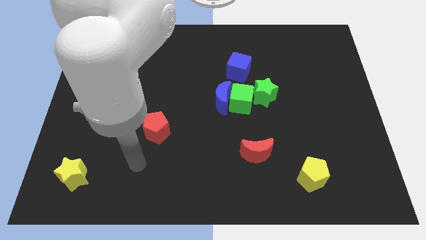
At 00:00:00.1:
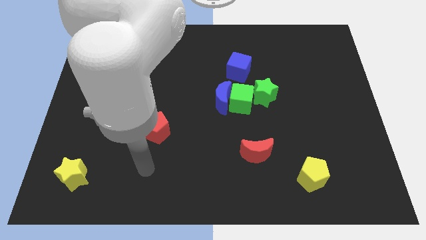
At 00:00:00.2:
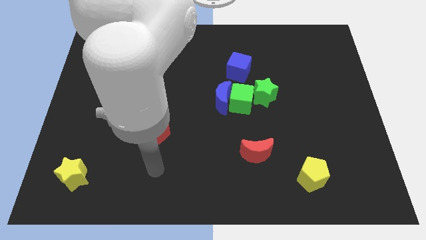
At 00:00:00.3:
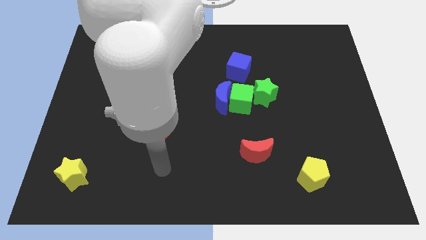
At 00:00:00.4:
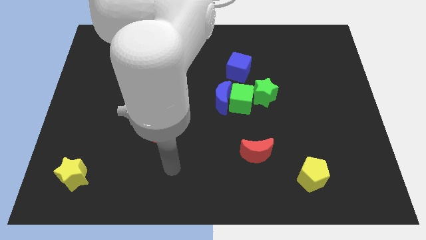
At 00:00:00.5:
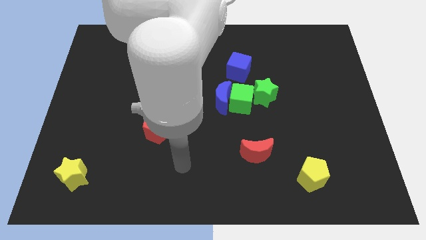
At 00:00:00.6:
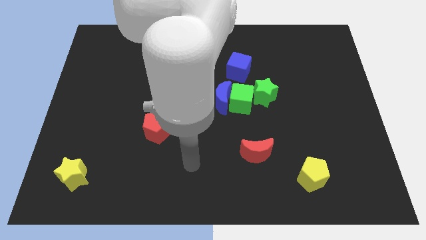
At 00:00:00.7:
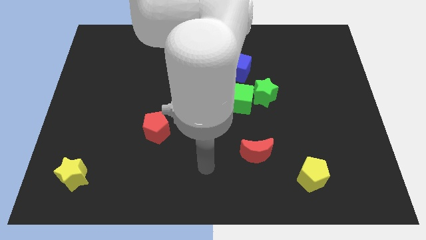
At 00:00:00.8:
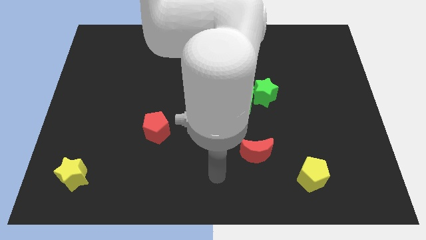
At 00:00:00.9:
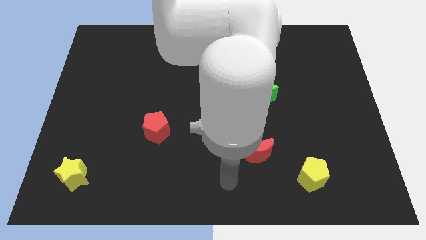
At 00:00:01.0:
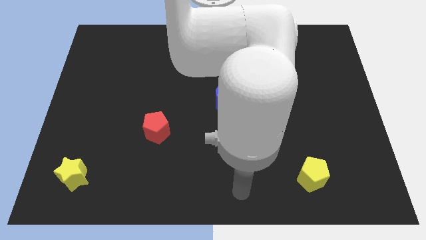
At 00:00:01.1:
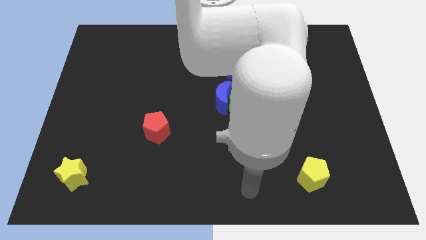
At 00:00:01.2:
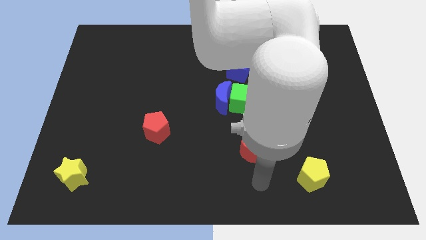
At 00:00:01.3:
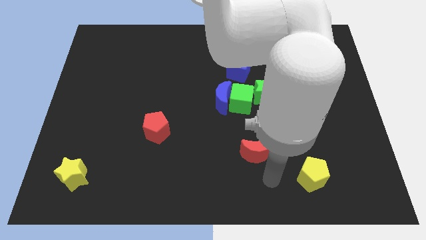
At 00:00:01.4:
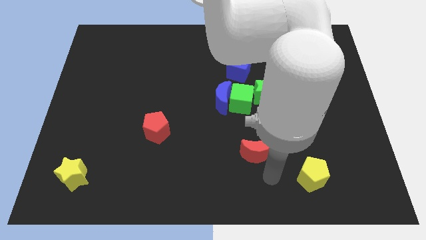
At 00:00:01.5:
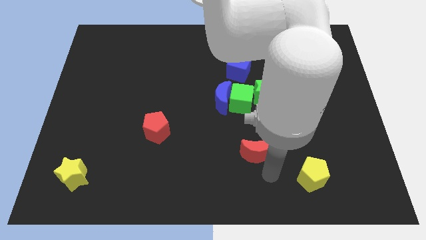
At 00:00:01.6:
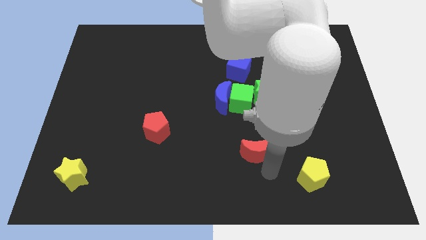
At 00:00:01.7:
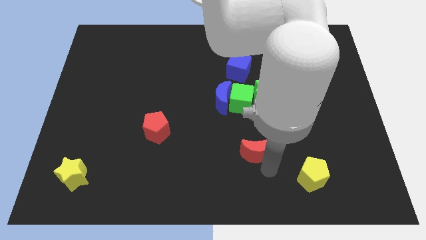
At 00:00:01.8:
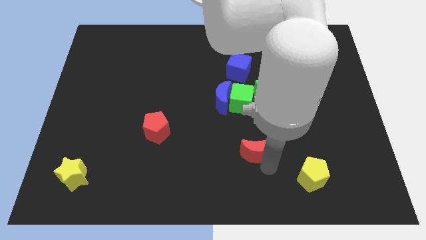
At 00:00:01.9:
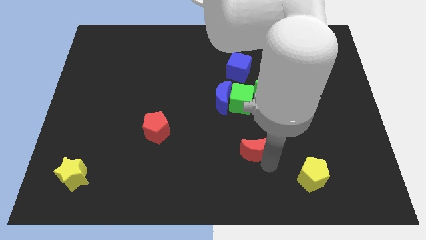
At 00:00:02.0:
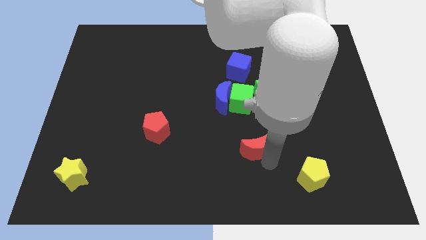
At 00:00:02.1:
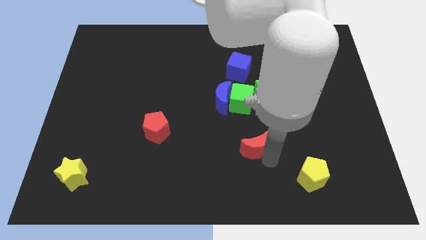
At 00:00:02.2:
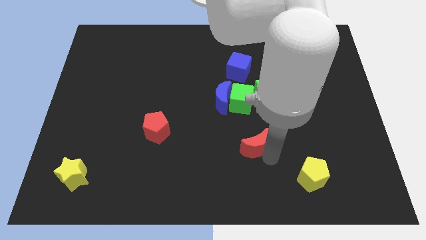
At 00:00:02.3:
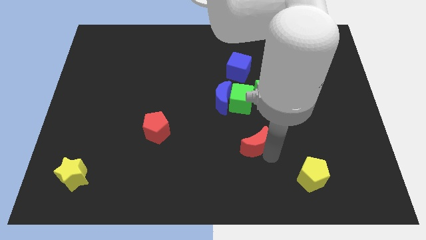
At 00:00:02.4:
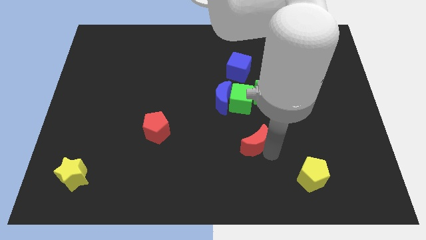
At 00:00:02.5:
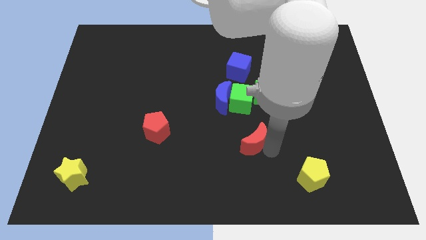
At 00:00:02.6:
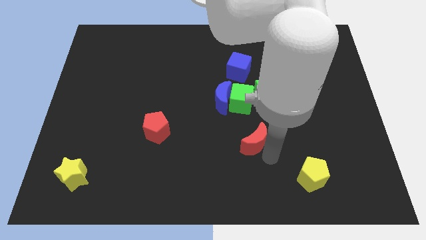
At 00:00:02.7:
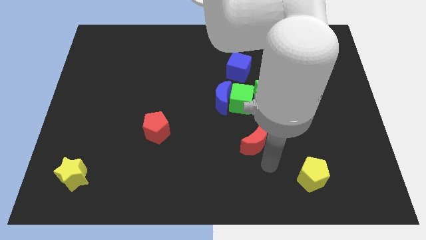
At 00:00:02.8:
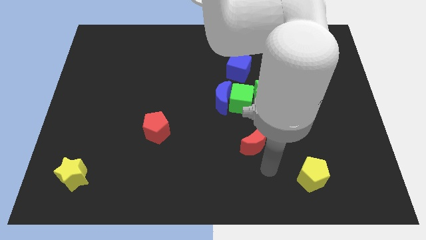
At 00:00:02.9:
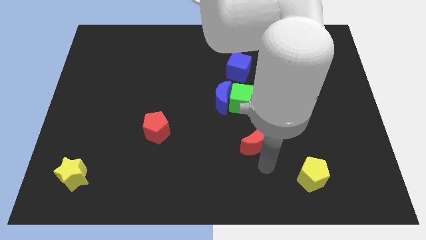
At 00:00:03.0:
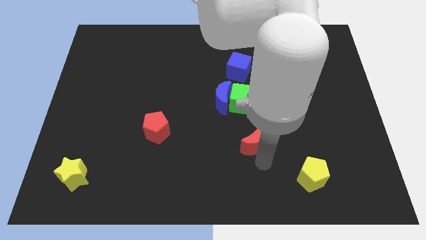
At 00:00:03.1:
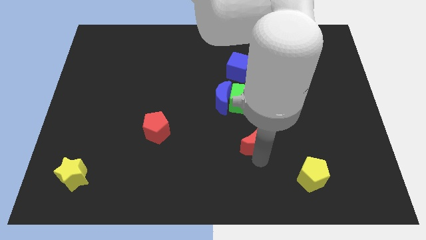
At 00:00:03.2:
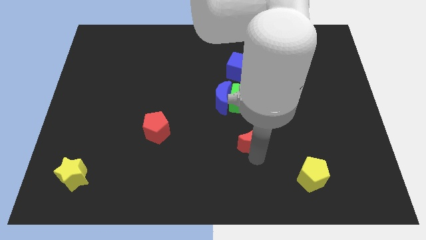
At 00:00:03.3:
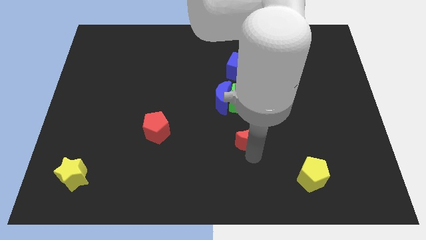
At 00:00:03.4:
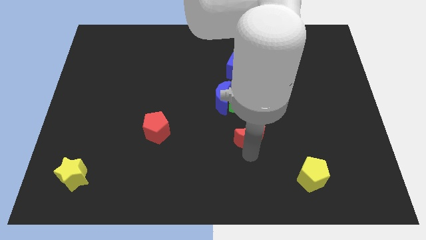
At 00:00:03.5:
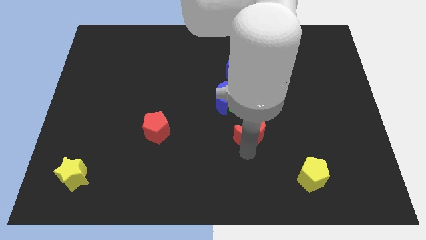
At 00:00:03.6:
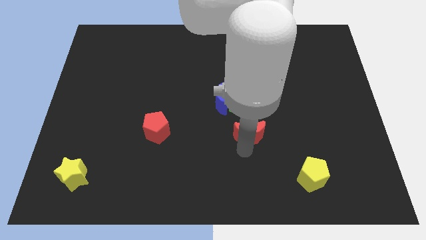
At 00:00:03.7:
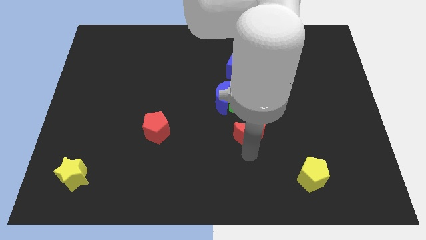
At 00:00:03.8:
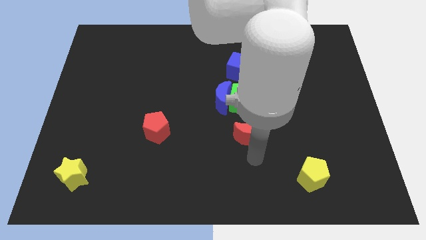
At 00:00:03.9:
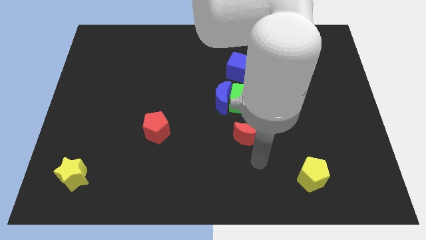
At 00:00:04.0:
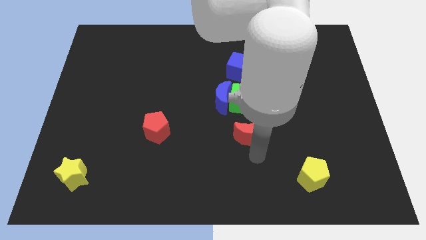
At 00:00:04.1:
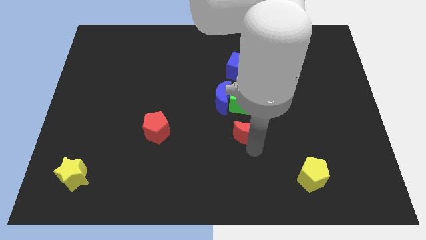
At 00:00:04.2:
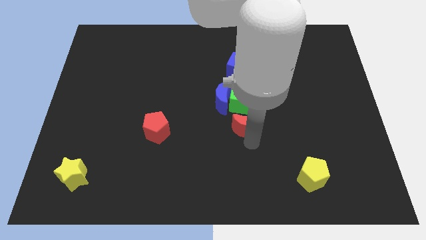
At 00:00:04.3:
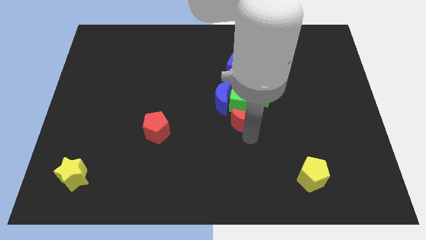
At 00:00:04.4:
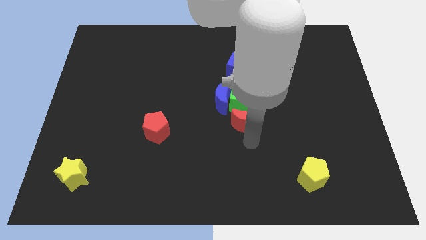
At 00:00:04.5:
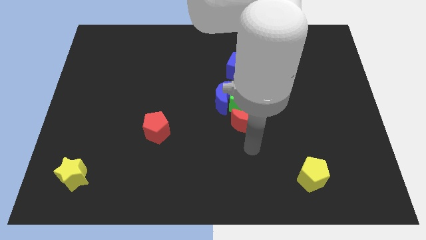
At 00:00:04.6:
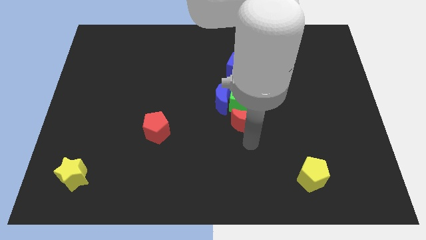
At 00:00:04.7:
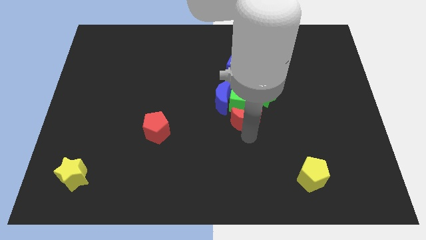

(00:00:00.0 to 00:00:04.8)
push the red moon to the bottom side of the blue cube

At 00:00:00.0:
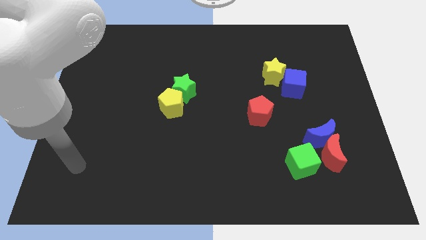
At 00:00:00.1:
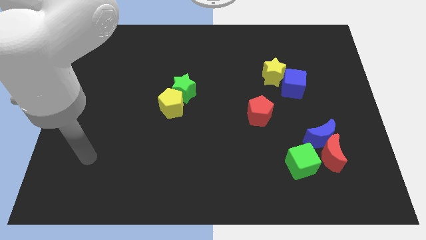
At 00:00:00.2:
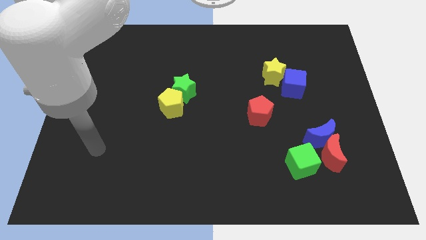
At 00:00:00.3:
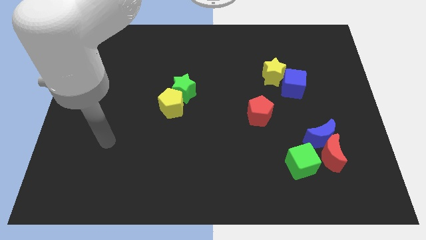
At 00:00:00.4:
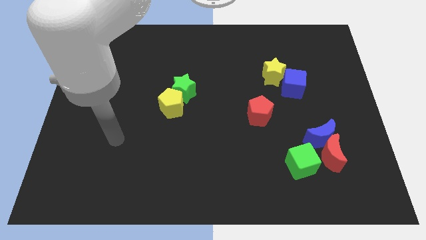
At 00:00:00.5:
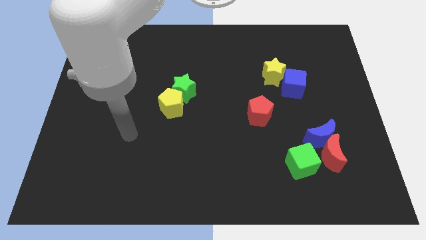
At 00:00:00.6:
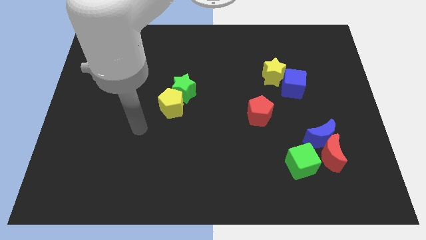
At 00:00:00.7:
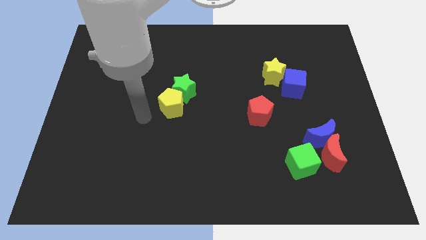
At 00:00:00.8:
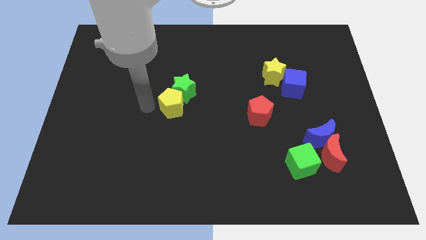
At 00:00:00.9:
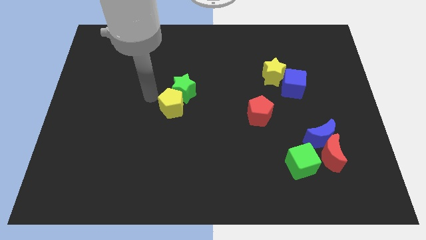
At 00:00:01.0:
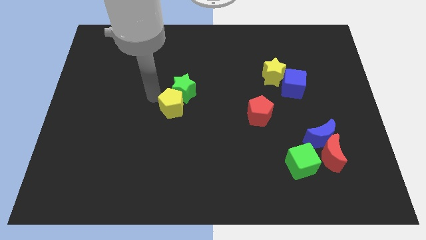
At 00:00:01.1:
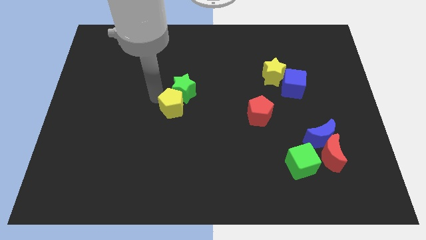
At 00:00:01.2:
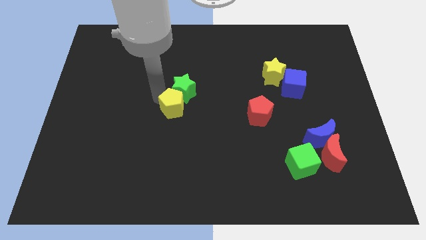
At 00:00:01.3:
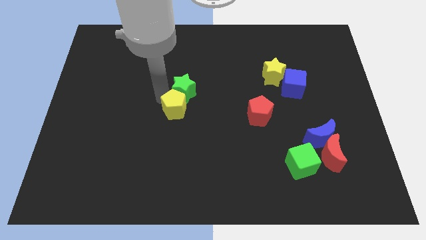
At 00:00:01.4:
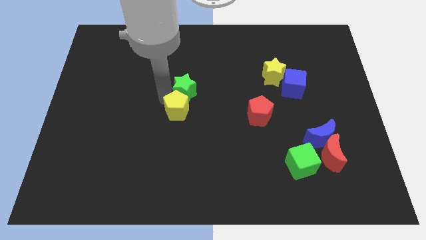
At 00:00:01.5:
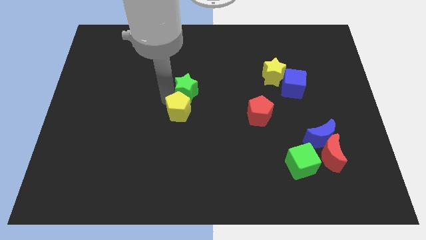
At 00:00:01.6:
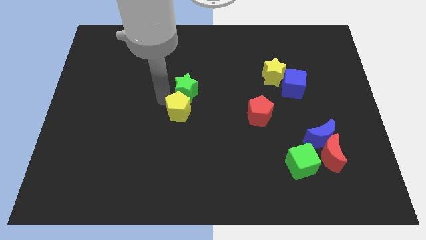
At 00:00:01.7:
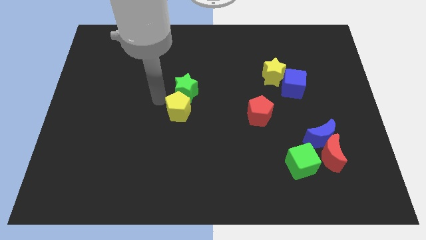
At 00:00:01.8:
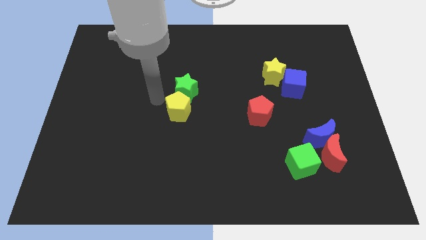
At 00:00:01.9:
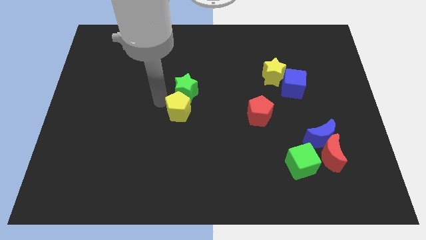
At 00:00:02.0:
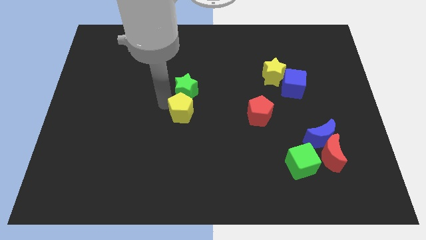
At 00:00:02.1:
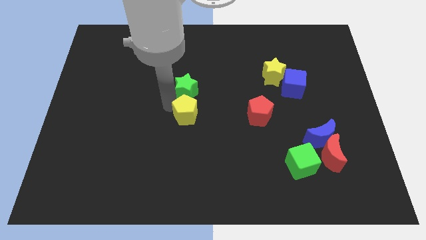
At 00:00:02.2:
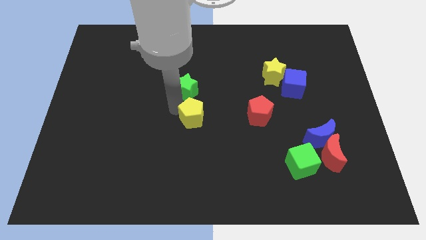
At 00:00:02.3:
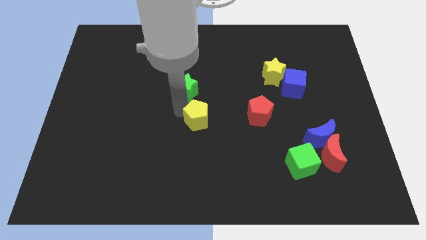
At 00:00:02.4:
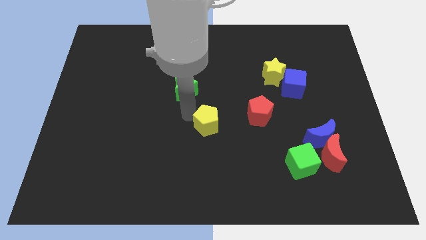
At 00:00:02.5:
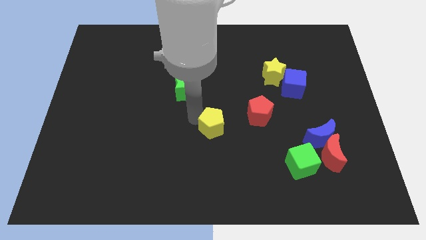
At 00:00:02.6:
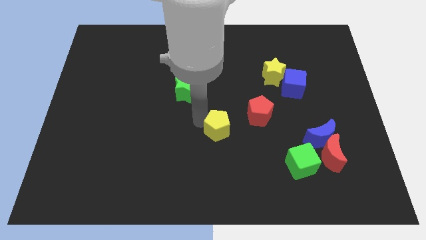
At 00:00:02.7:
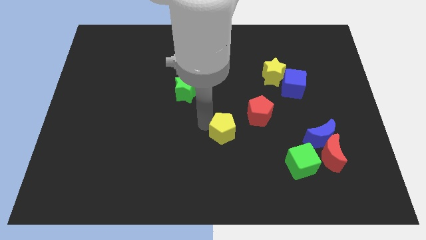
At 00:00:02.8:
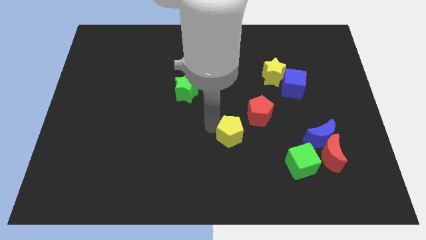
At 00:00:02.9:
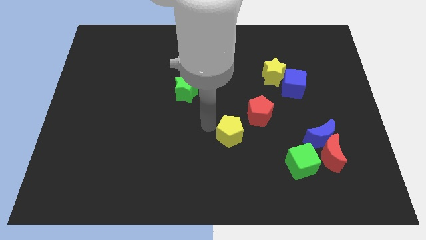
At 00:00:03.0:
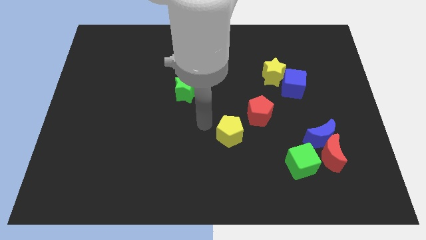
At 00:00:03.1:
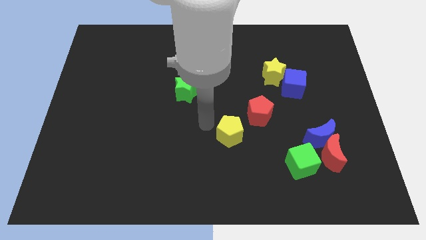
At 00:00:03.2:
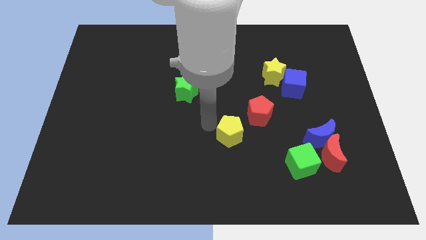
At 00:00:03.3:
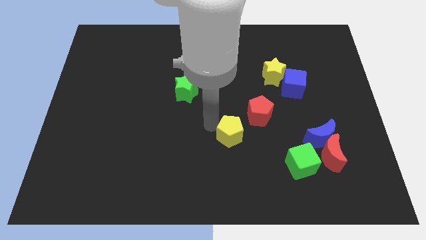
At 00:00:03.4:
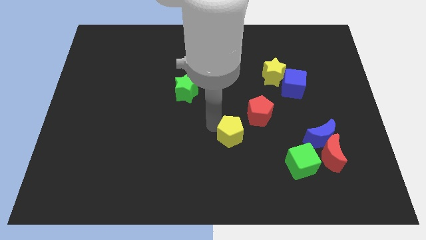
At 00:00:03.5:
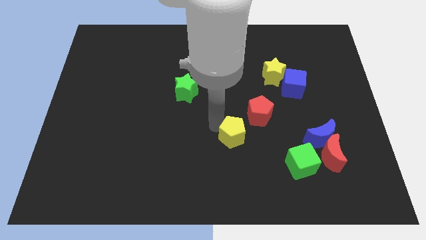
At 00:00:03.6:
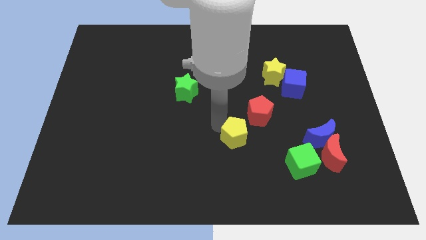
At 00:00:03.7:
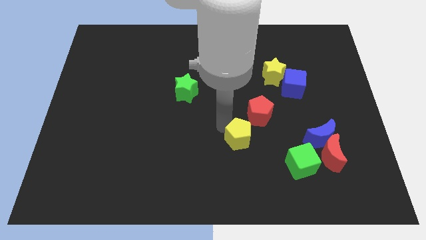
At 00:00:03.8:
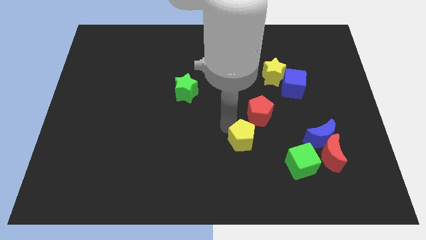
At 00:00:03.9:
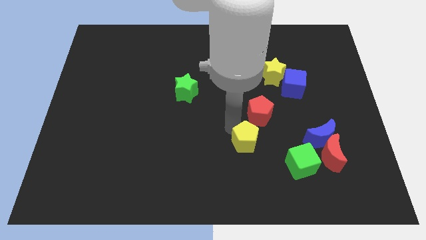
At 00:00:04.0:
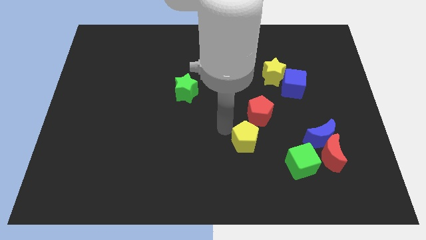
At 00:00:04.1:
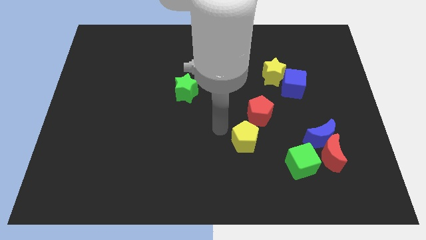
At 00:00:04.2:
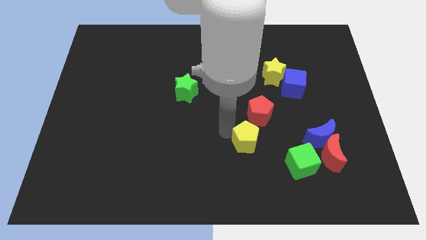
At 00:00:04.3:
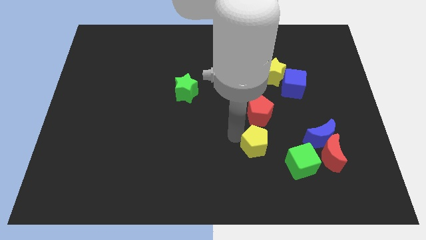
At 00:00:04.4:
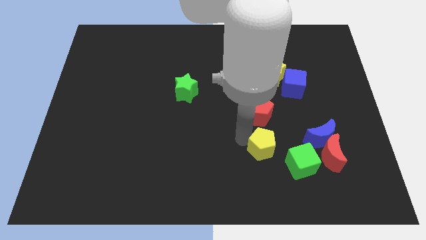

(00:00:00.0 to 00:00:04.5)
put the yellow pentagon left of the red moon
